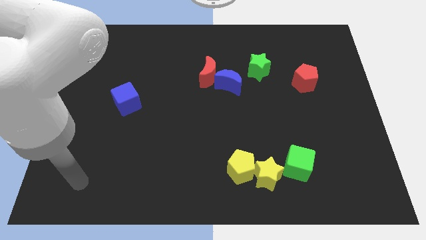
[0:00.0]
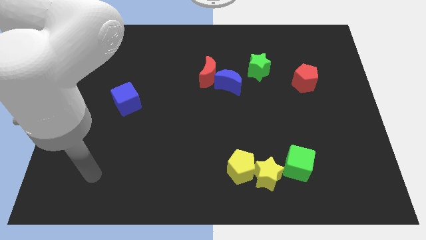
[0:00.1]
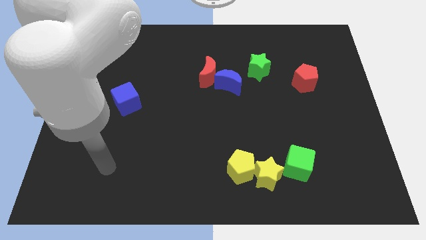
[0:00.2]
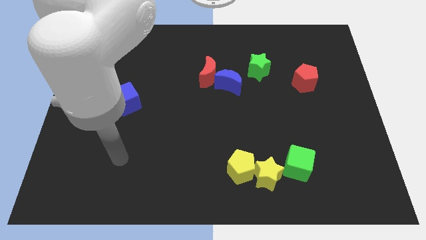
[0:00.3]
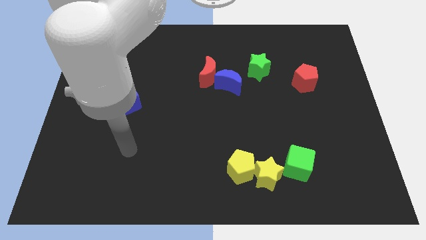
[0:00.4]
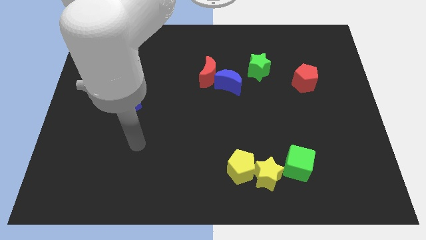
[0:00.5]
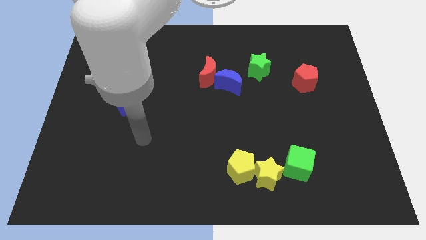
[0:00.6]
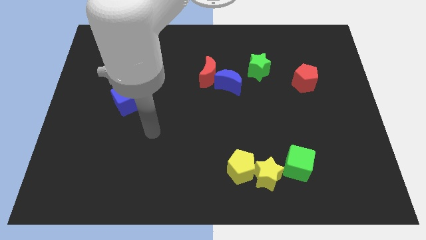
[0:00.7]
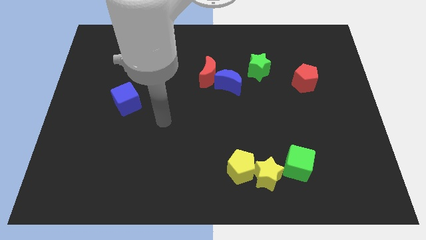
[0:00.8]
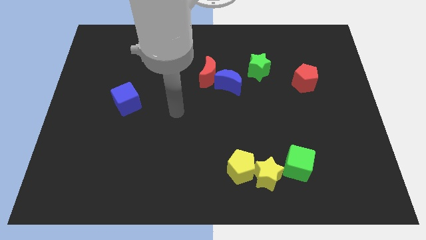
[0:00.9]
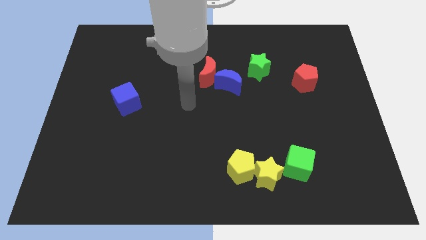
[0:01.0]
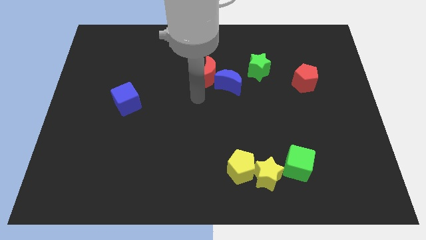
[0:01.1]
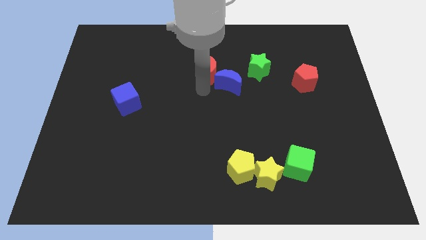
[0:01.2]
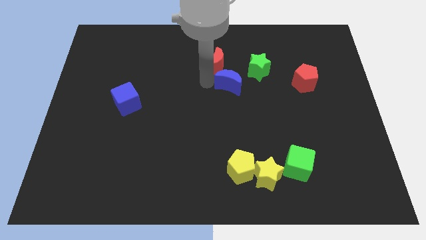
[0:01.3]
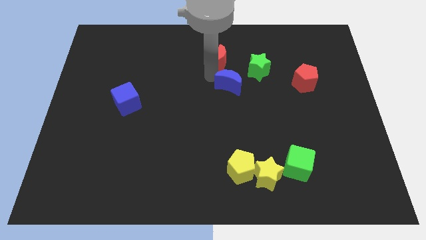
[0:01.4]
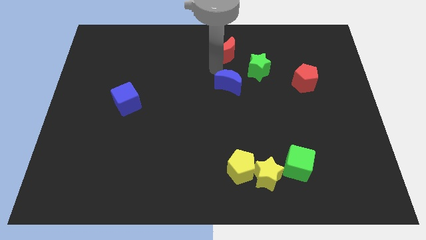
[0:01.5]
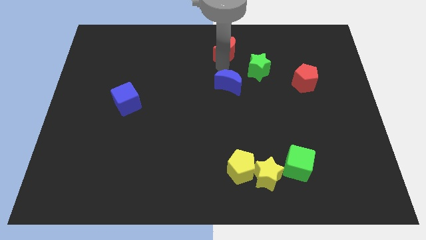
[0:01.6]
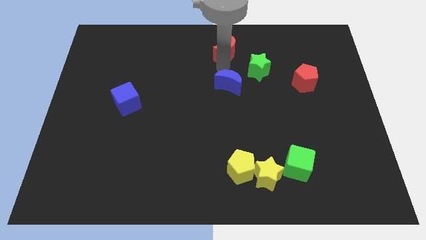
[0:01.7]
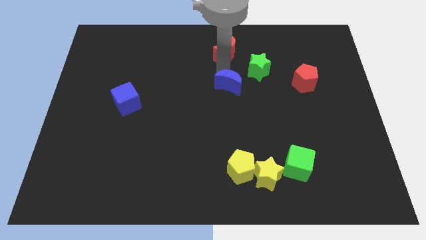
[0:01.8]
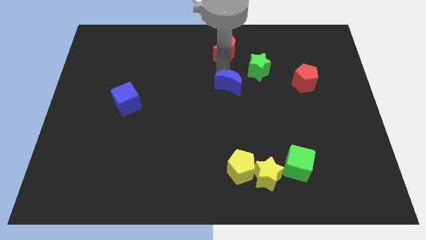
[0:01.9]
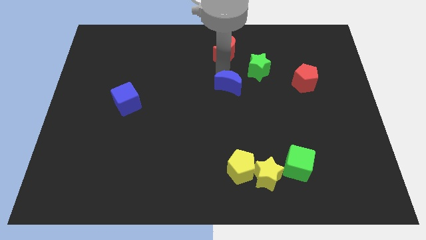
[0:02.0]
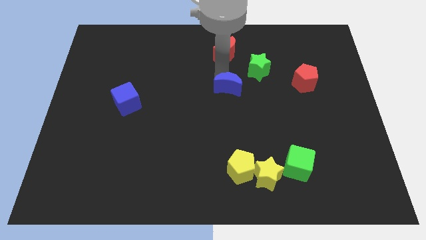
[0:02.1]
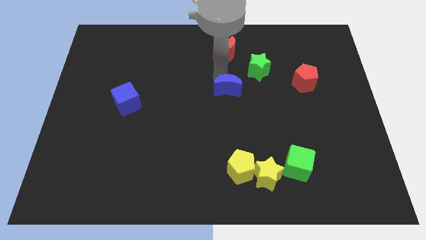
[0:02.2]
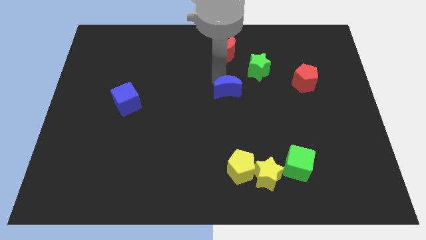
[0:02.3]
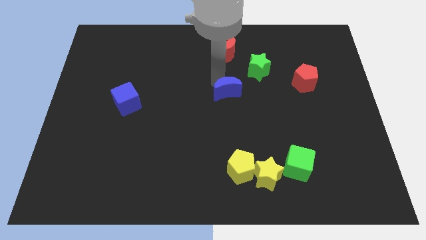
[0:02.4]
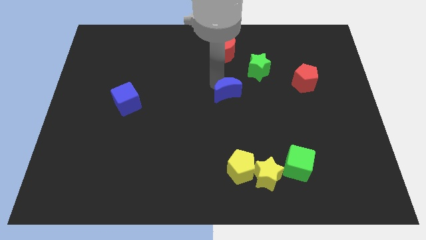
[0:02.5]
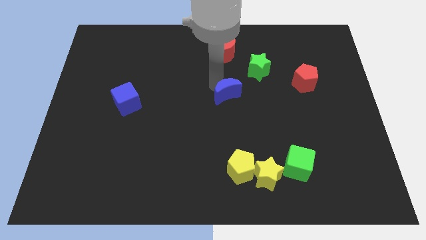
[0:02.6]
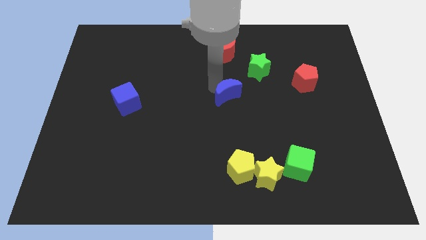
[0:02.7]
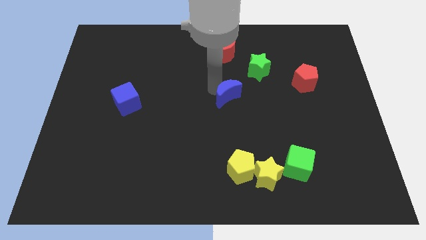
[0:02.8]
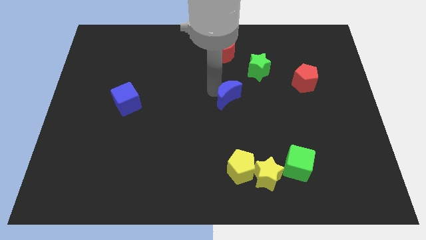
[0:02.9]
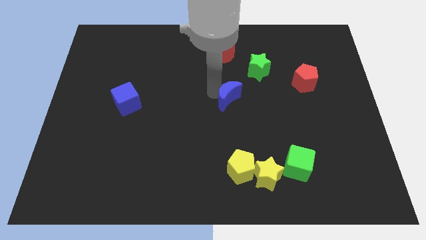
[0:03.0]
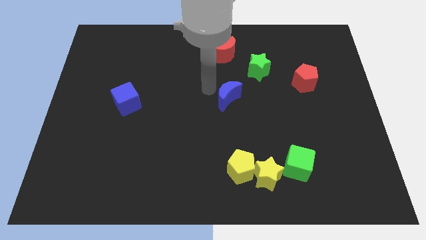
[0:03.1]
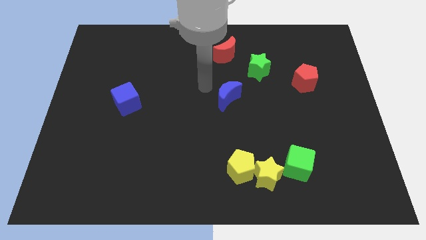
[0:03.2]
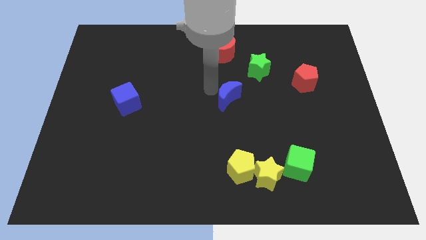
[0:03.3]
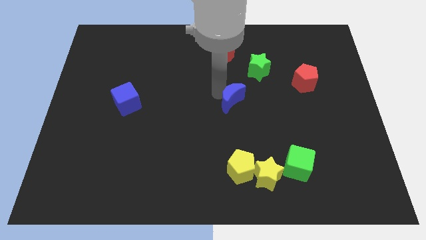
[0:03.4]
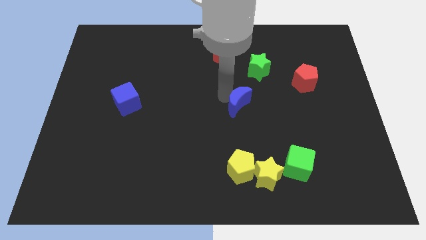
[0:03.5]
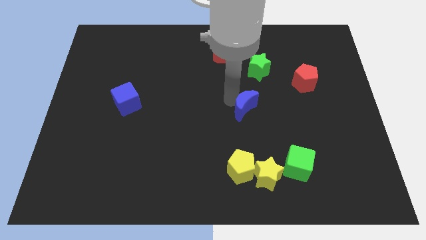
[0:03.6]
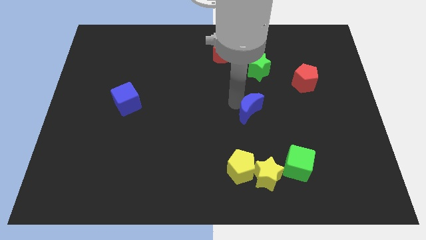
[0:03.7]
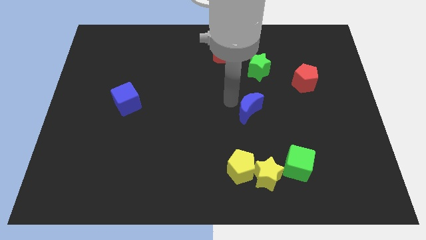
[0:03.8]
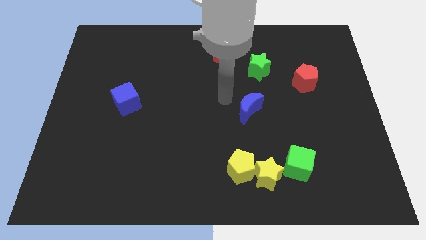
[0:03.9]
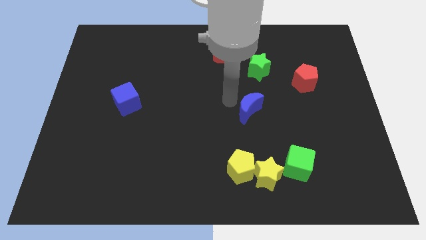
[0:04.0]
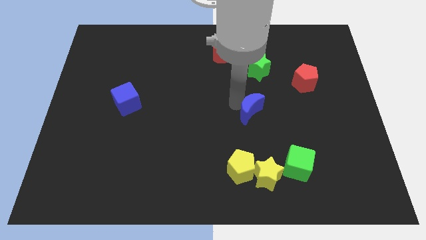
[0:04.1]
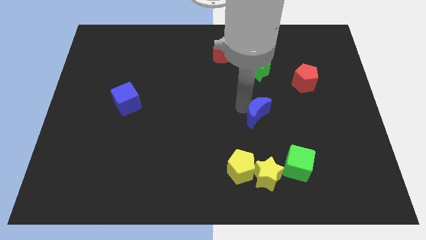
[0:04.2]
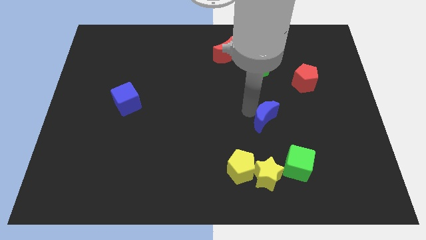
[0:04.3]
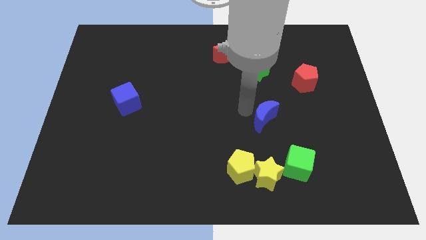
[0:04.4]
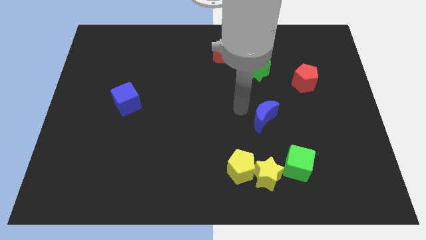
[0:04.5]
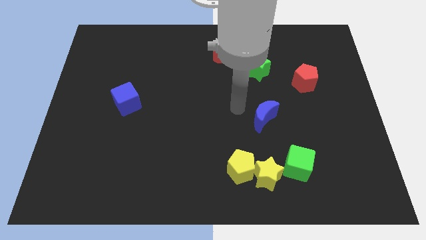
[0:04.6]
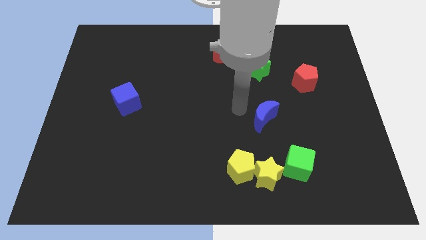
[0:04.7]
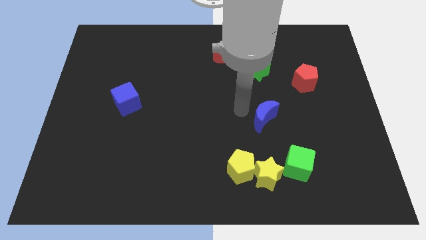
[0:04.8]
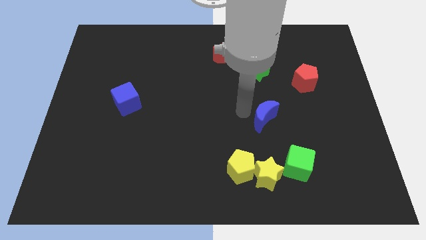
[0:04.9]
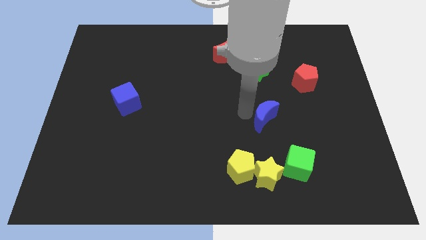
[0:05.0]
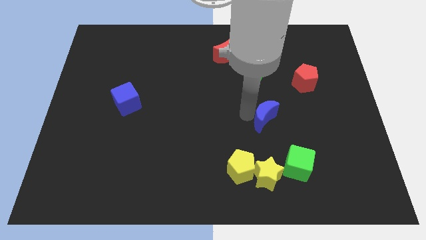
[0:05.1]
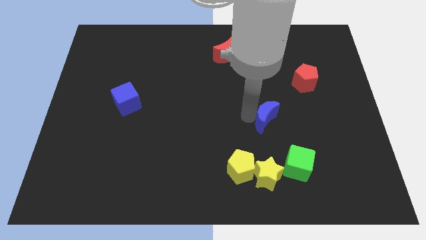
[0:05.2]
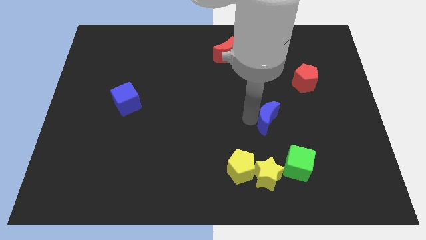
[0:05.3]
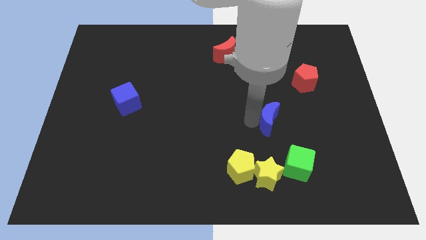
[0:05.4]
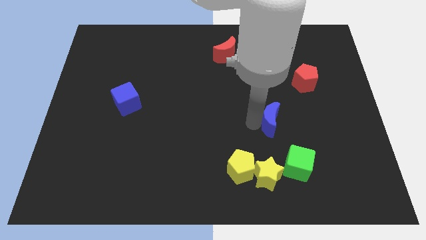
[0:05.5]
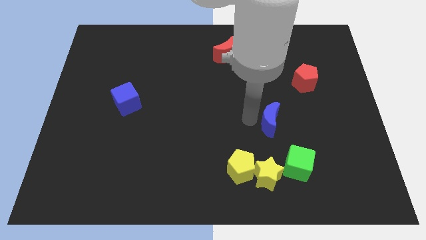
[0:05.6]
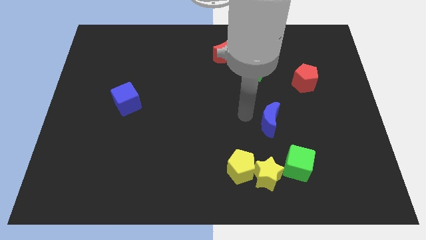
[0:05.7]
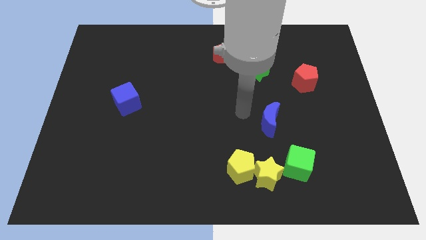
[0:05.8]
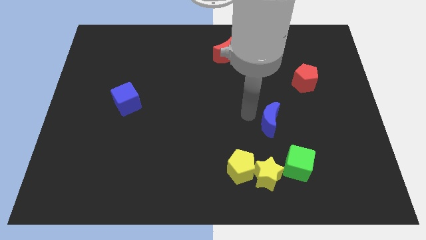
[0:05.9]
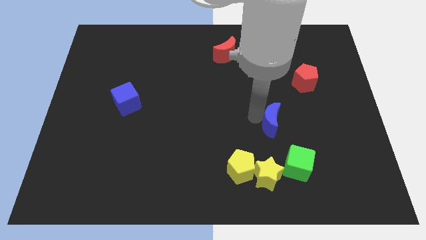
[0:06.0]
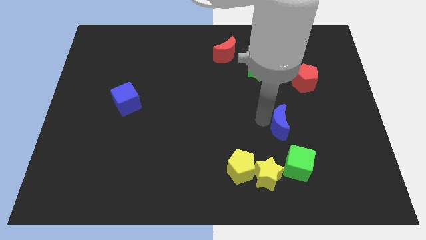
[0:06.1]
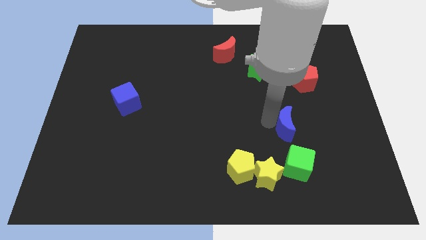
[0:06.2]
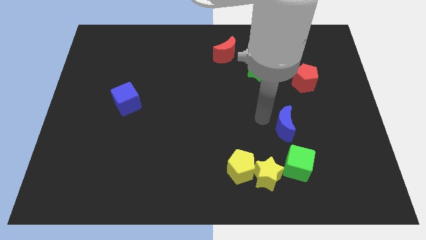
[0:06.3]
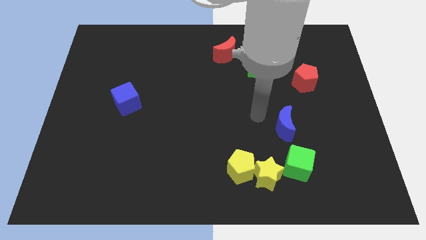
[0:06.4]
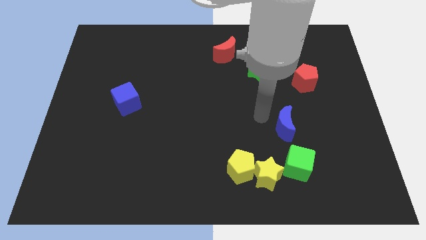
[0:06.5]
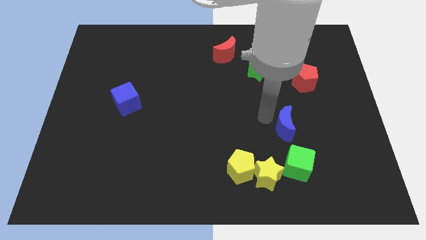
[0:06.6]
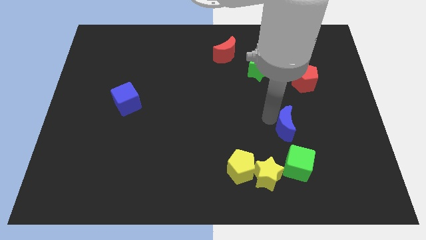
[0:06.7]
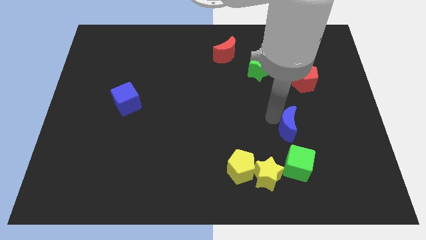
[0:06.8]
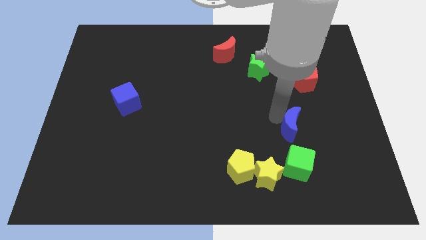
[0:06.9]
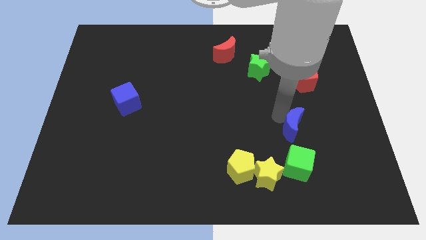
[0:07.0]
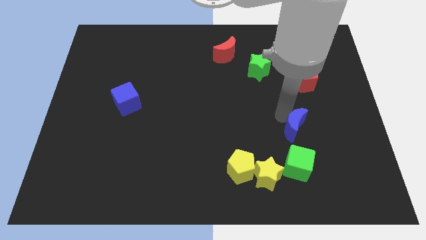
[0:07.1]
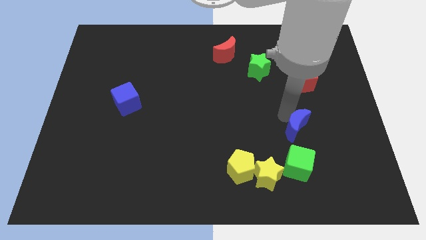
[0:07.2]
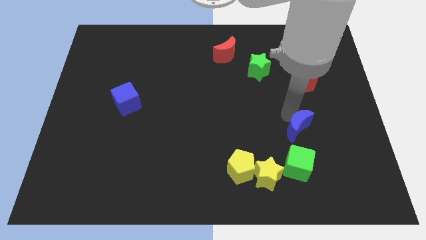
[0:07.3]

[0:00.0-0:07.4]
push the blue moon down and right diagonally

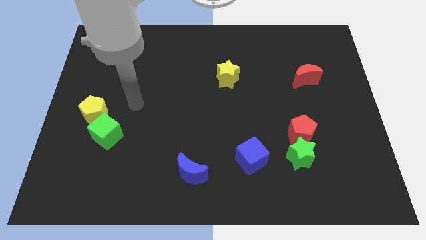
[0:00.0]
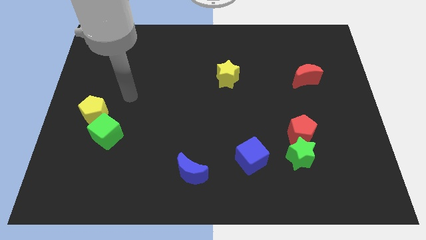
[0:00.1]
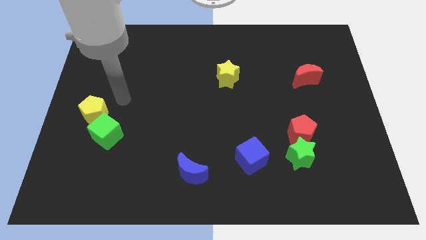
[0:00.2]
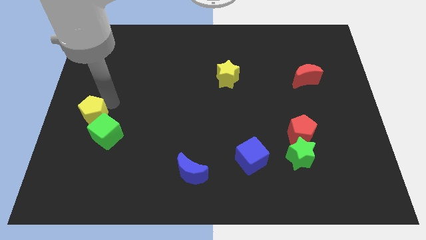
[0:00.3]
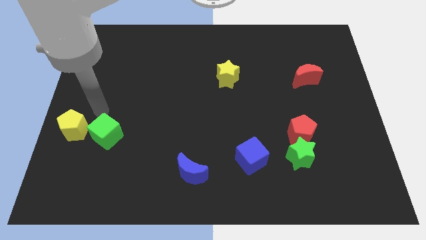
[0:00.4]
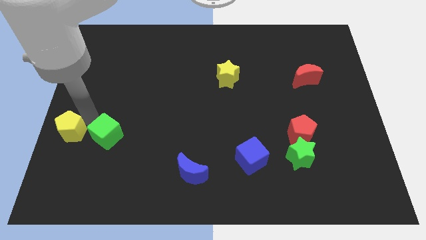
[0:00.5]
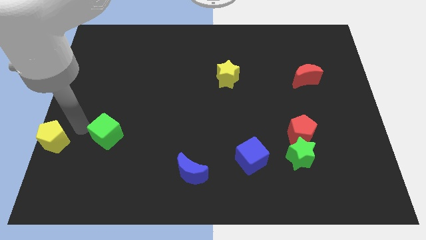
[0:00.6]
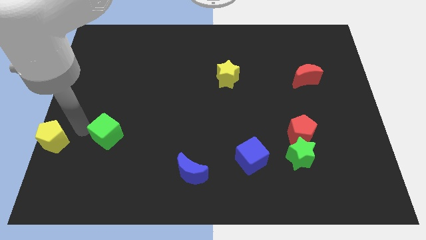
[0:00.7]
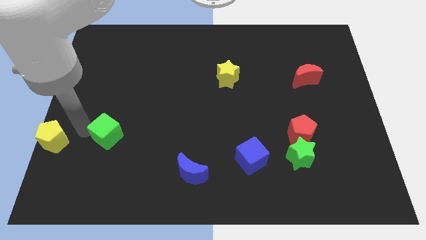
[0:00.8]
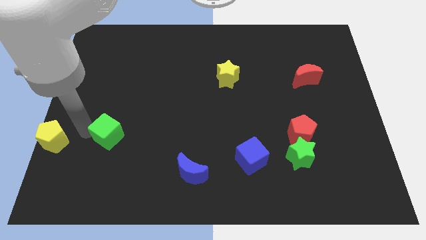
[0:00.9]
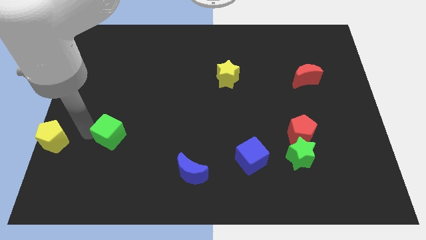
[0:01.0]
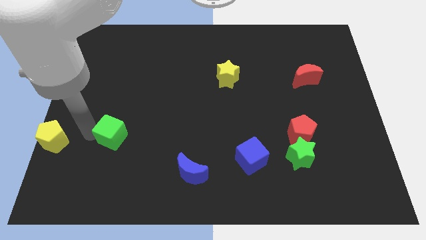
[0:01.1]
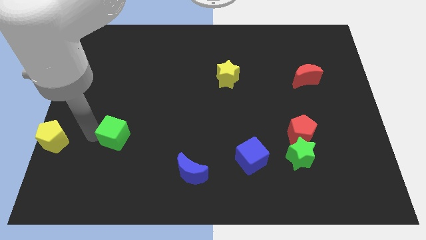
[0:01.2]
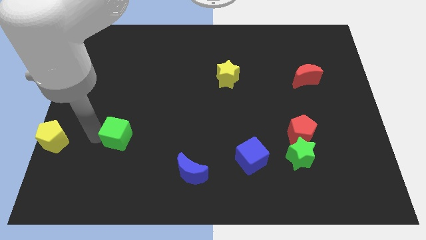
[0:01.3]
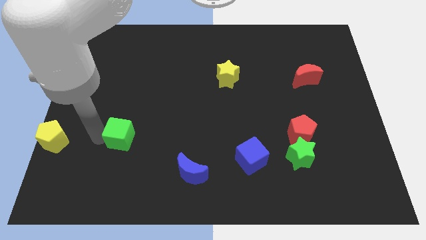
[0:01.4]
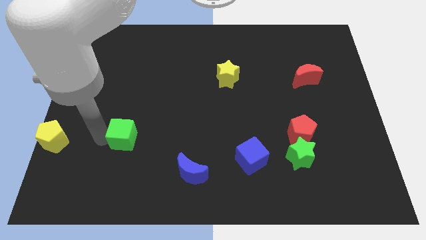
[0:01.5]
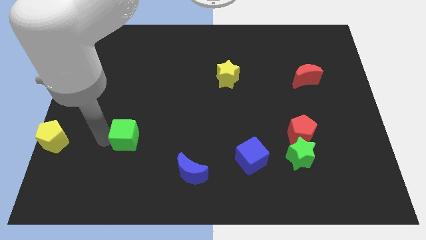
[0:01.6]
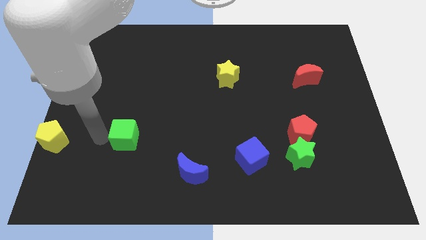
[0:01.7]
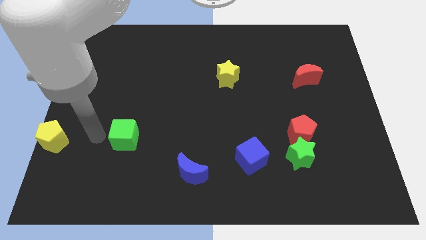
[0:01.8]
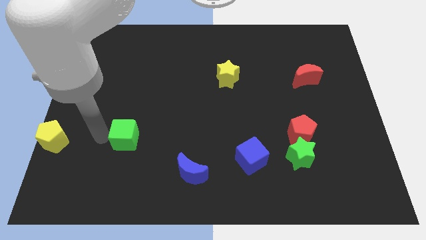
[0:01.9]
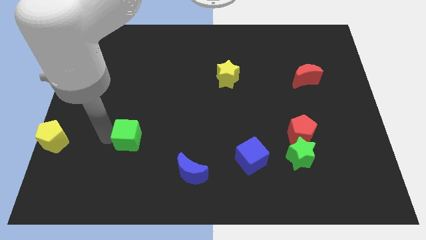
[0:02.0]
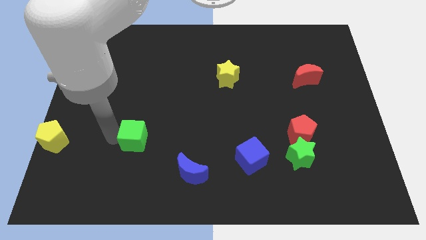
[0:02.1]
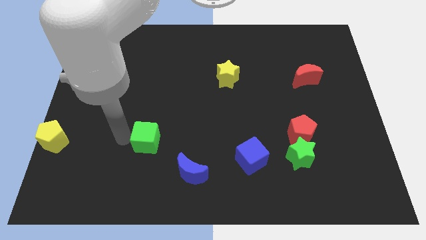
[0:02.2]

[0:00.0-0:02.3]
slightly push the green cube right
